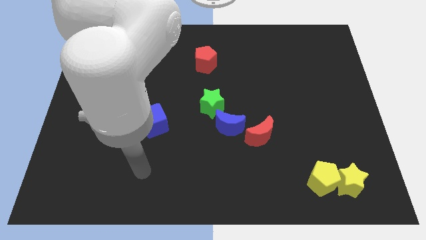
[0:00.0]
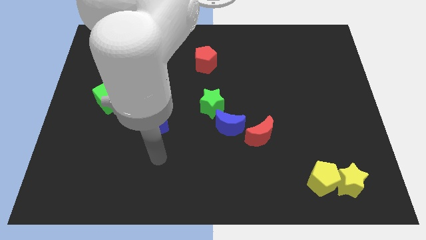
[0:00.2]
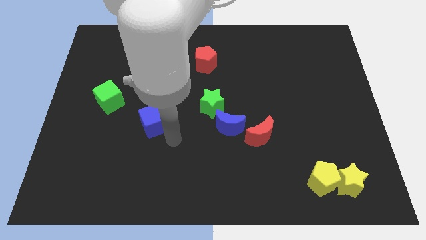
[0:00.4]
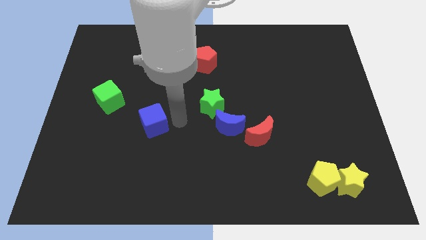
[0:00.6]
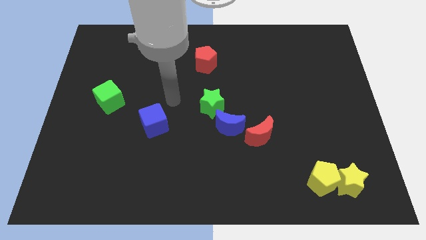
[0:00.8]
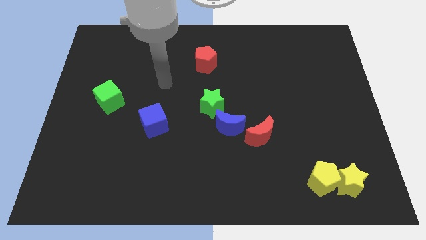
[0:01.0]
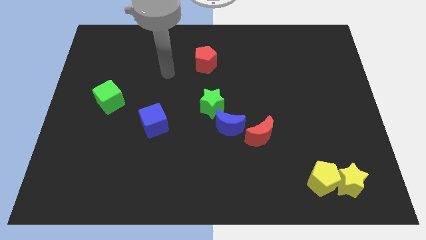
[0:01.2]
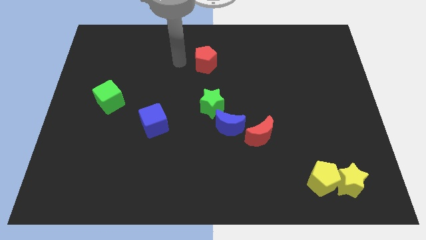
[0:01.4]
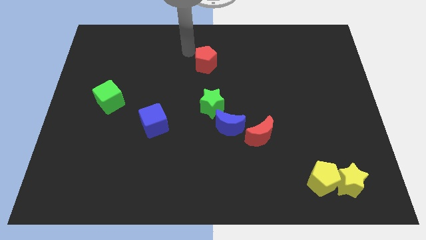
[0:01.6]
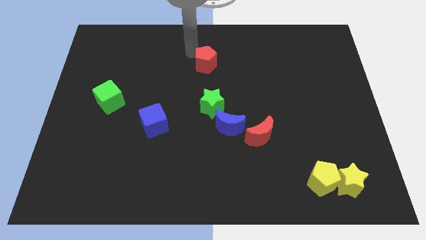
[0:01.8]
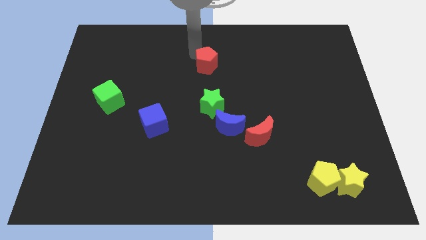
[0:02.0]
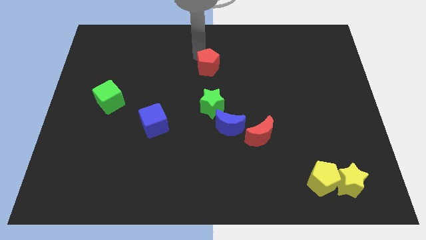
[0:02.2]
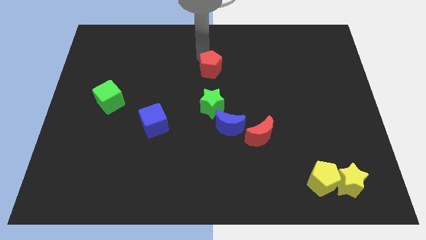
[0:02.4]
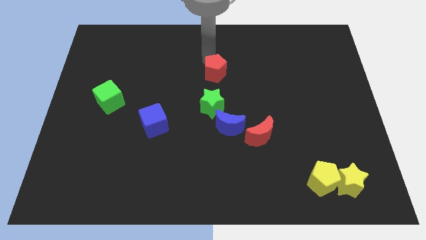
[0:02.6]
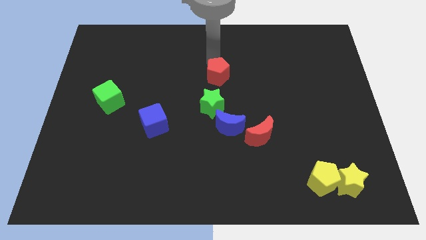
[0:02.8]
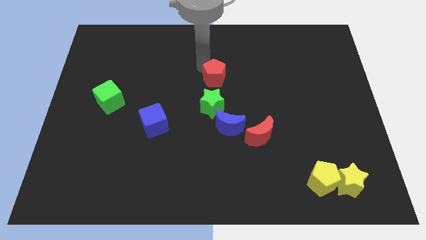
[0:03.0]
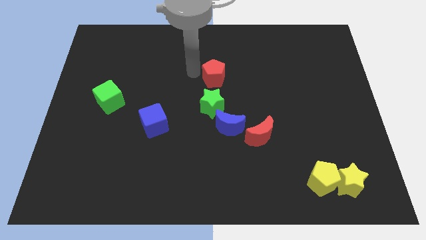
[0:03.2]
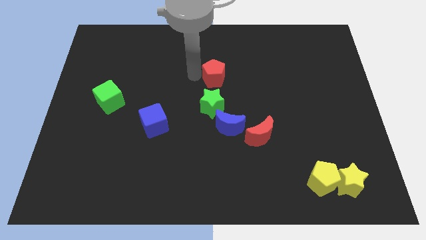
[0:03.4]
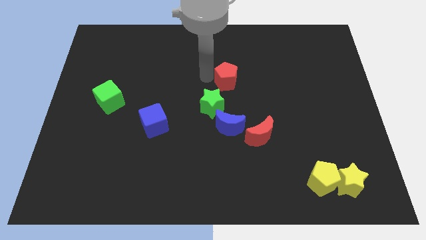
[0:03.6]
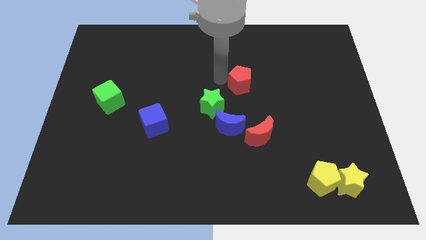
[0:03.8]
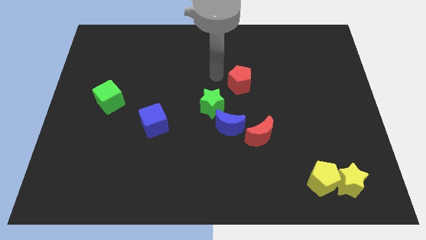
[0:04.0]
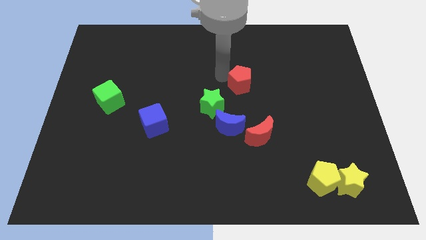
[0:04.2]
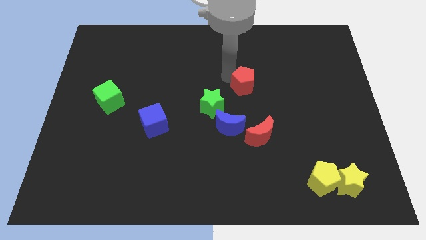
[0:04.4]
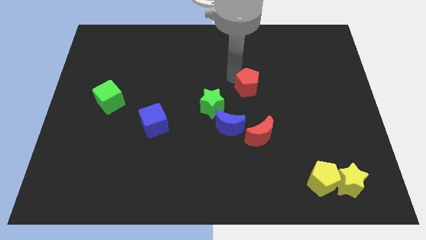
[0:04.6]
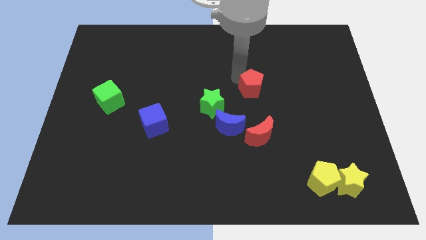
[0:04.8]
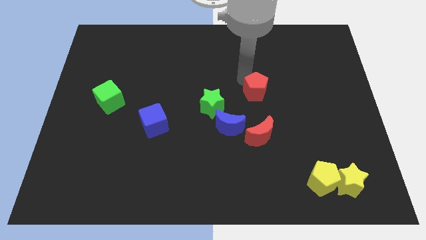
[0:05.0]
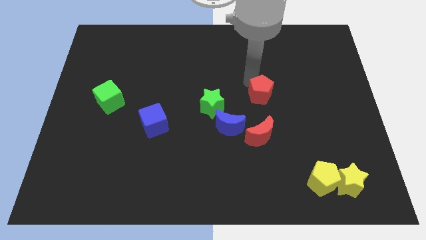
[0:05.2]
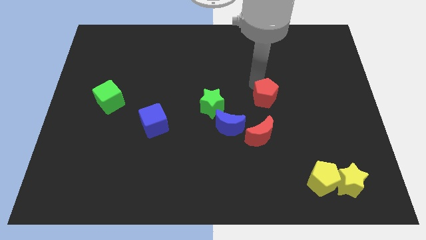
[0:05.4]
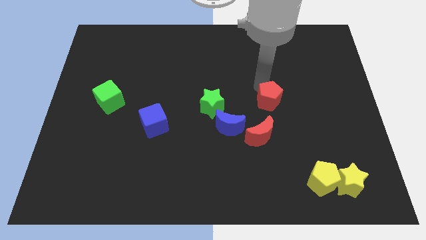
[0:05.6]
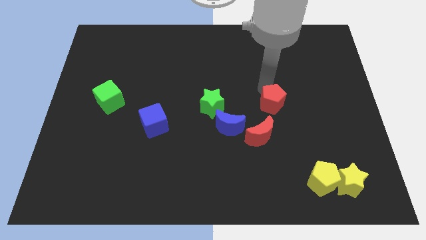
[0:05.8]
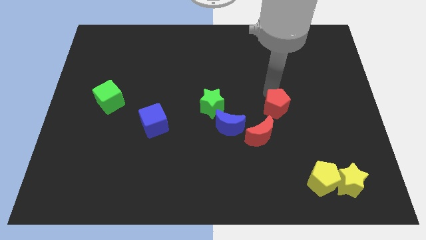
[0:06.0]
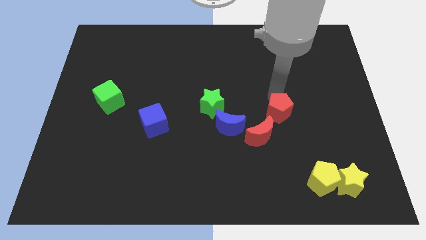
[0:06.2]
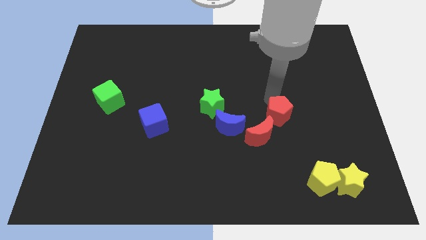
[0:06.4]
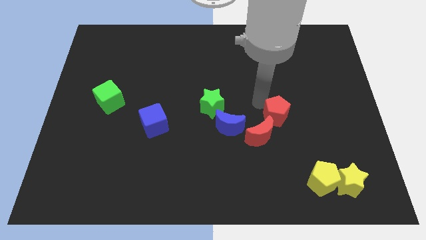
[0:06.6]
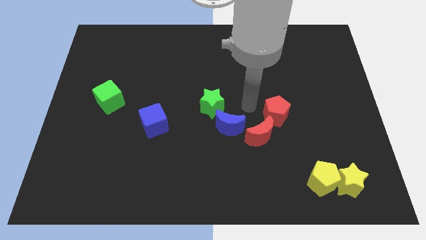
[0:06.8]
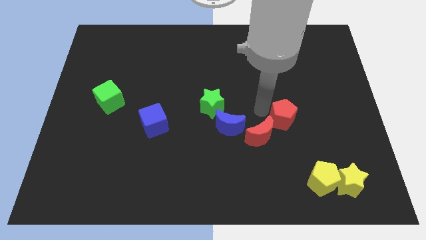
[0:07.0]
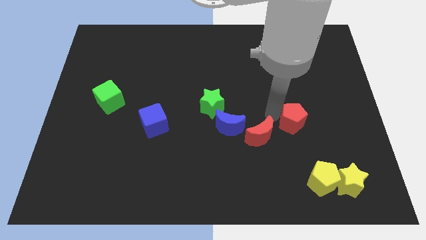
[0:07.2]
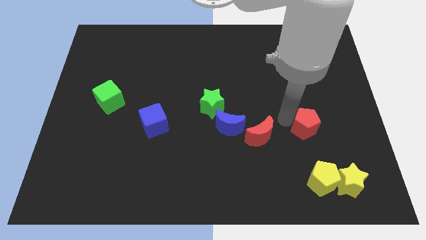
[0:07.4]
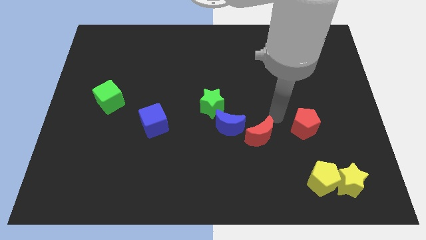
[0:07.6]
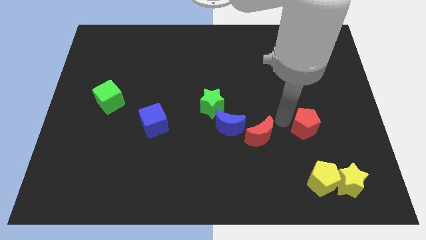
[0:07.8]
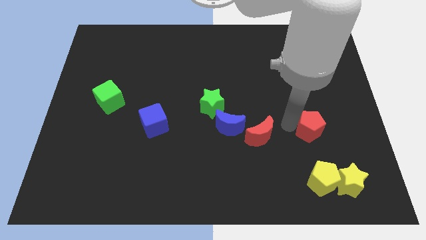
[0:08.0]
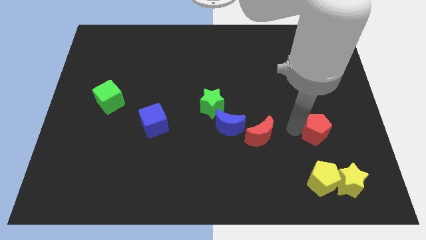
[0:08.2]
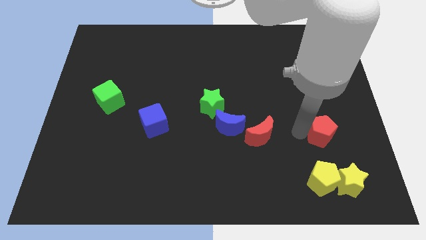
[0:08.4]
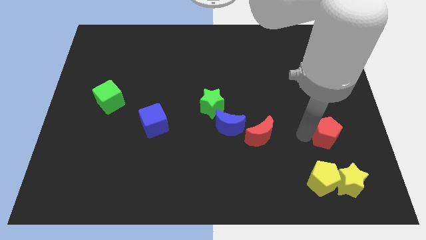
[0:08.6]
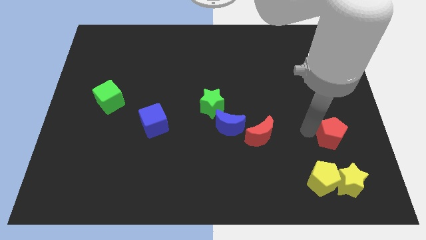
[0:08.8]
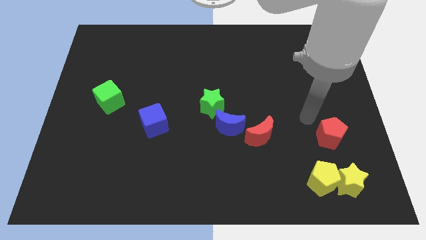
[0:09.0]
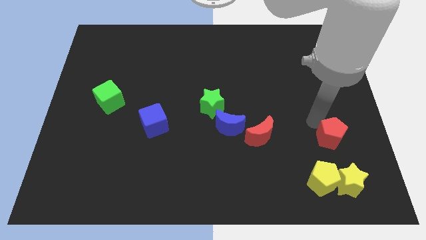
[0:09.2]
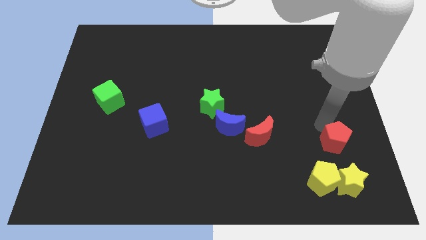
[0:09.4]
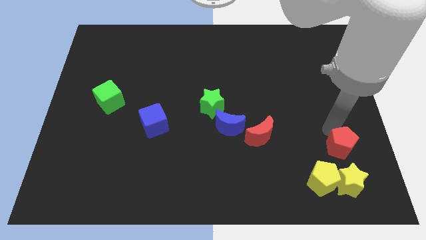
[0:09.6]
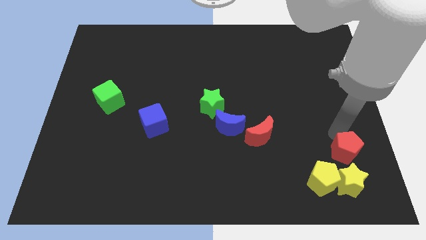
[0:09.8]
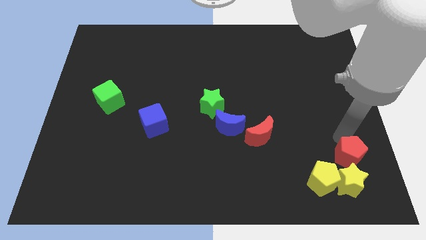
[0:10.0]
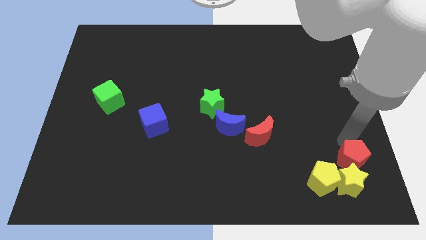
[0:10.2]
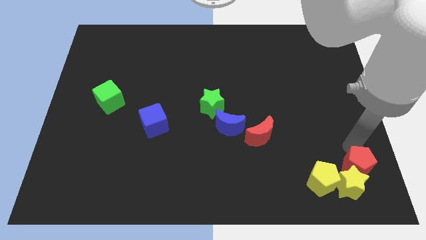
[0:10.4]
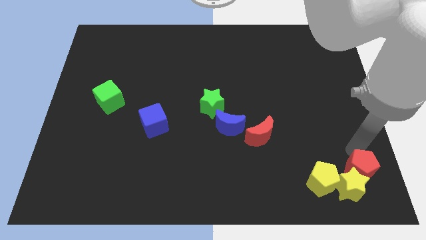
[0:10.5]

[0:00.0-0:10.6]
slide the red pentagon to the bottom right of the board
